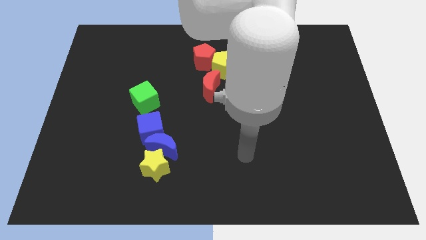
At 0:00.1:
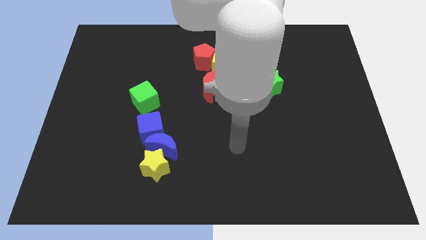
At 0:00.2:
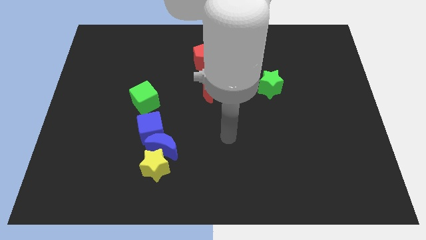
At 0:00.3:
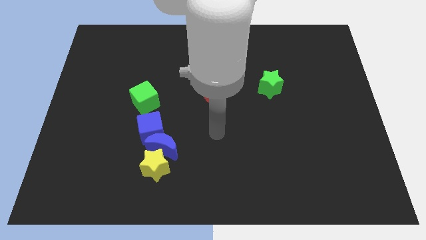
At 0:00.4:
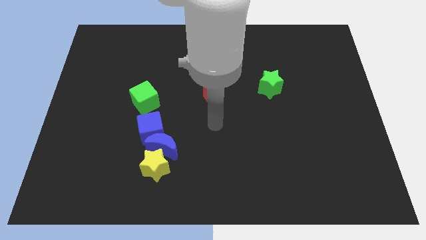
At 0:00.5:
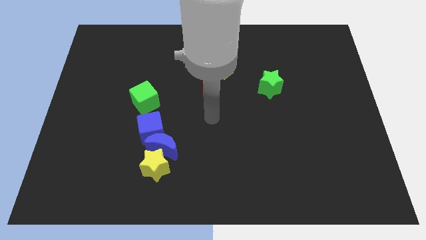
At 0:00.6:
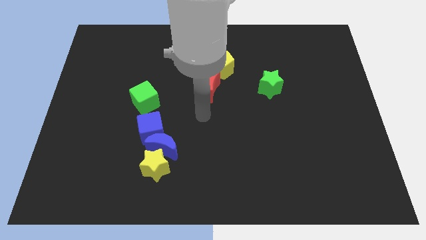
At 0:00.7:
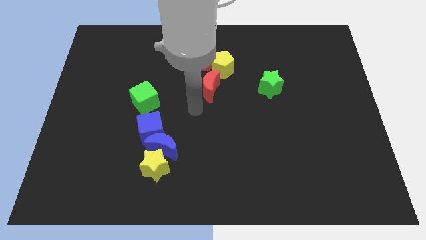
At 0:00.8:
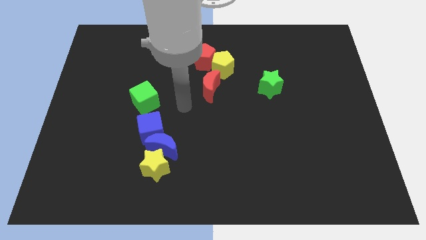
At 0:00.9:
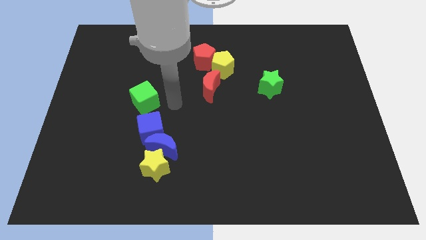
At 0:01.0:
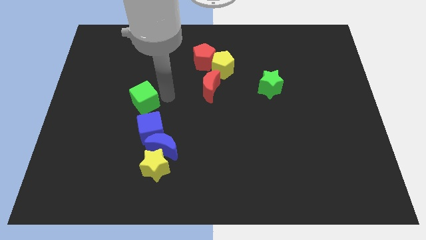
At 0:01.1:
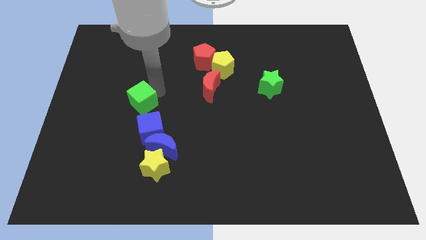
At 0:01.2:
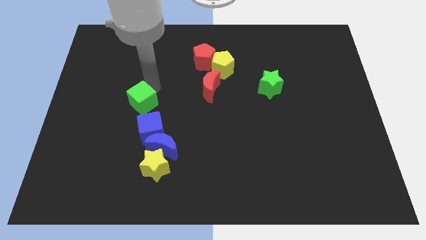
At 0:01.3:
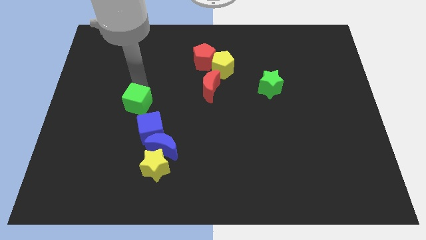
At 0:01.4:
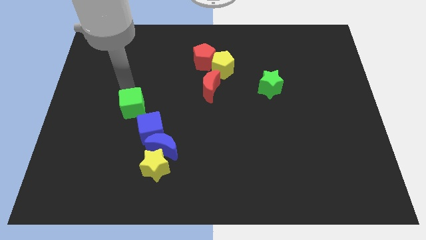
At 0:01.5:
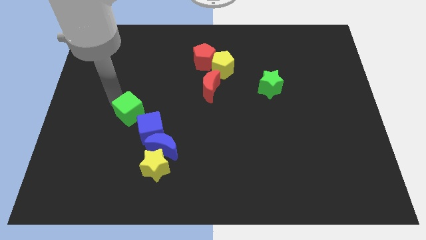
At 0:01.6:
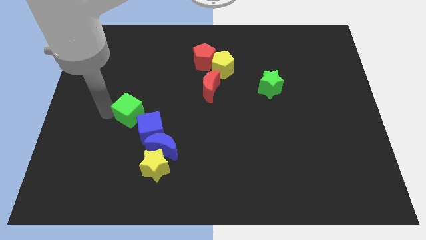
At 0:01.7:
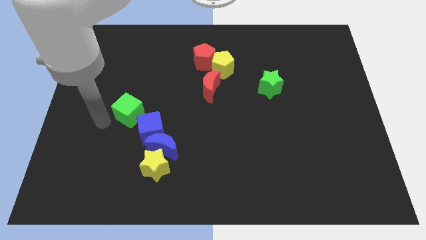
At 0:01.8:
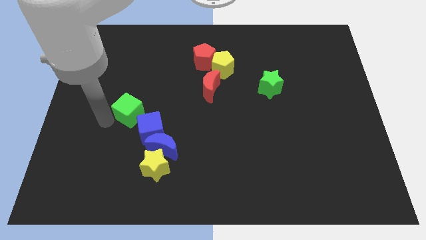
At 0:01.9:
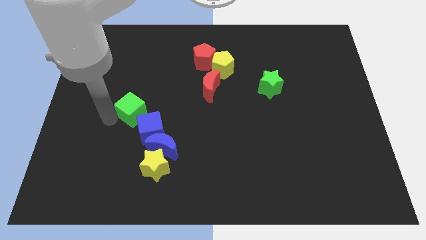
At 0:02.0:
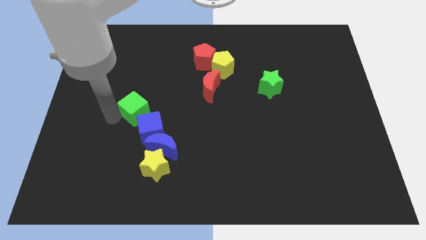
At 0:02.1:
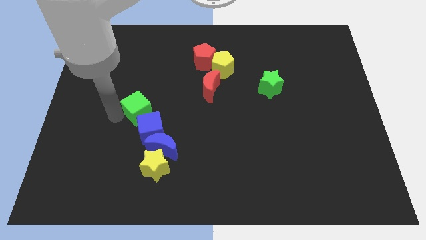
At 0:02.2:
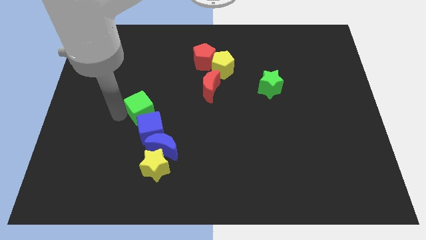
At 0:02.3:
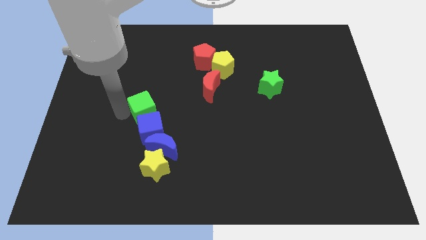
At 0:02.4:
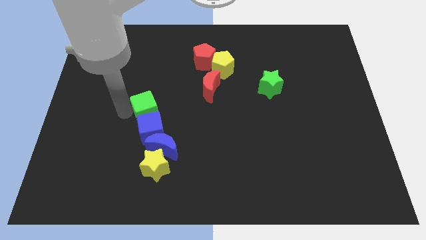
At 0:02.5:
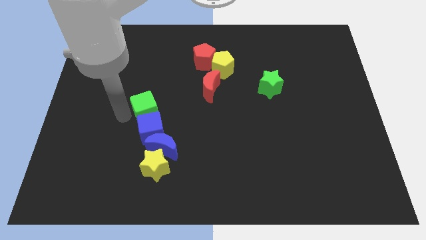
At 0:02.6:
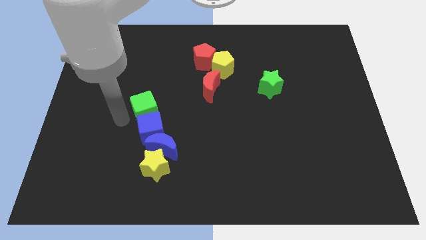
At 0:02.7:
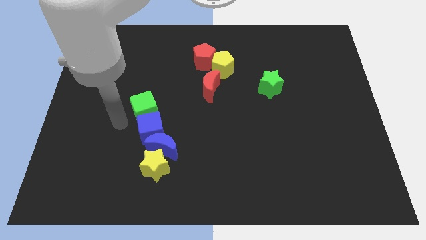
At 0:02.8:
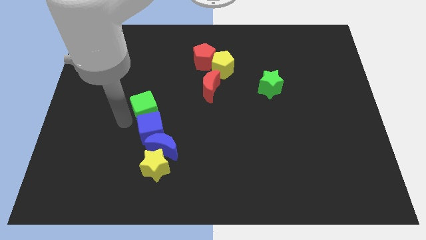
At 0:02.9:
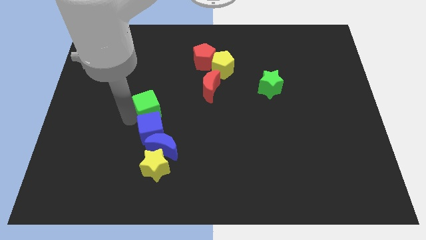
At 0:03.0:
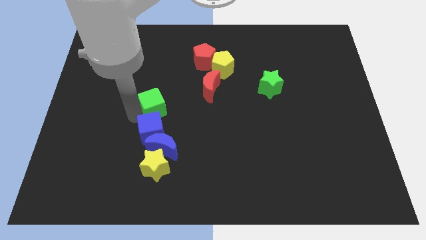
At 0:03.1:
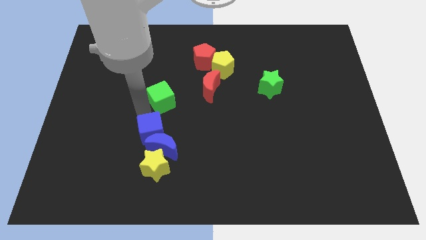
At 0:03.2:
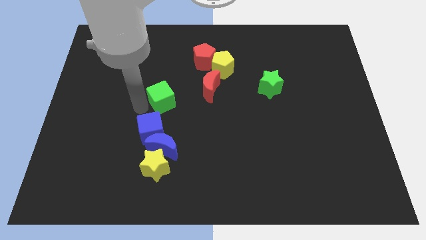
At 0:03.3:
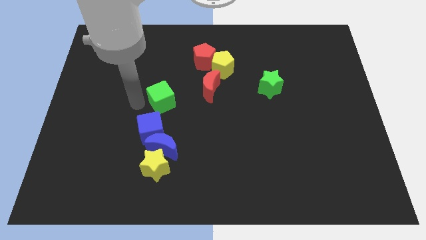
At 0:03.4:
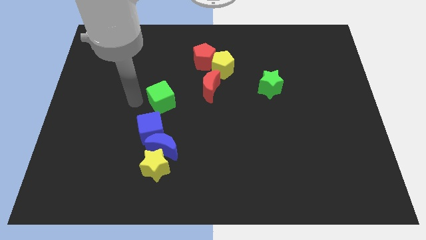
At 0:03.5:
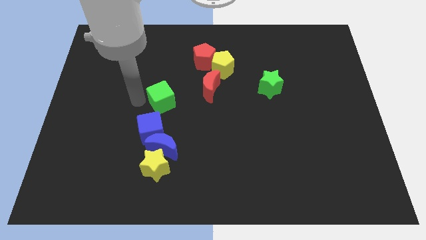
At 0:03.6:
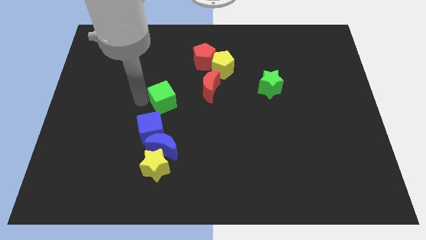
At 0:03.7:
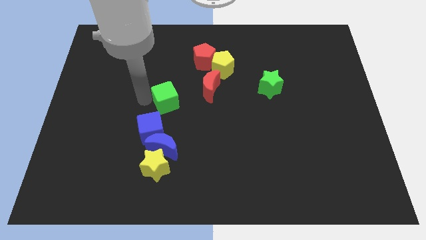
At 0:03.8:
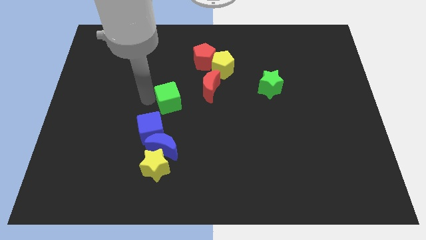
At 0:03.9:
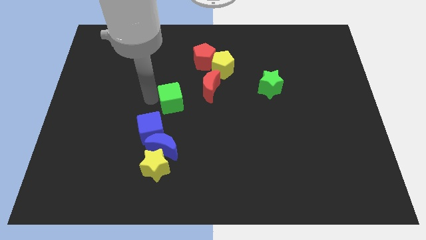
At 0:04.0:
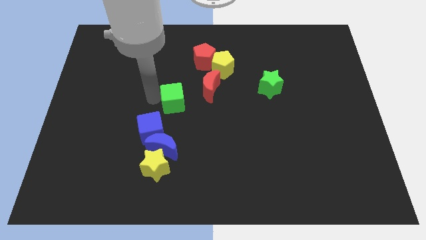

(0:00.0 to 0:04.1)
slide the green cube a bit right

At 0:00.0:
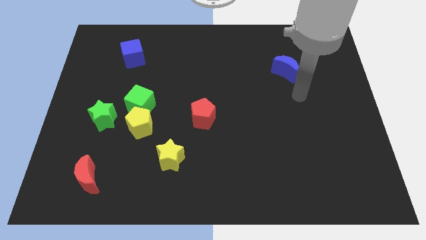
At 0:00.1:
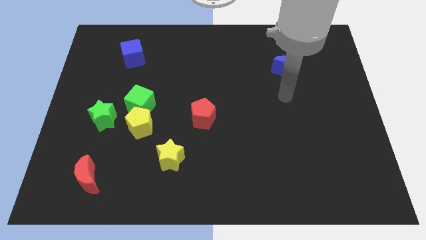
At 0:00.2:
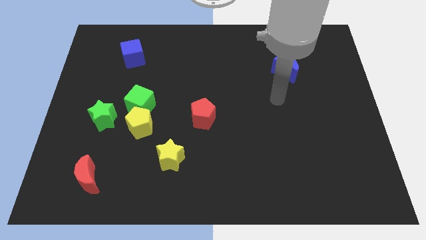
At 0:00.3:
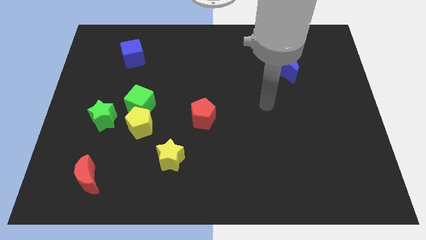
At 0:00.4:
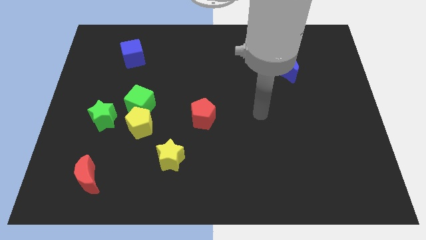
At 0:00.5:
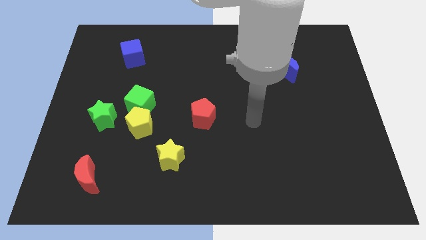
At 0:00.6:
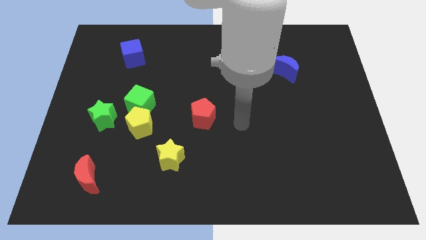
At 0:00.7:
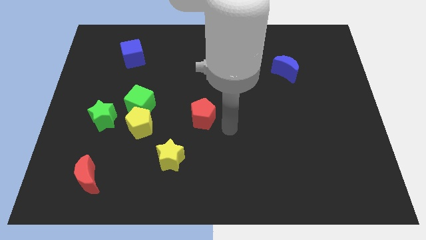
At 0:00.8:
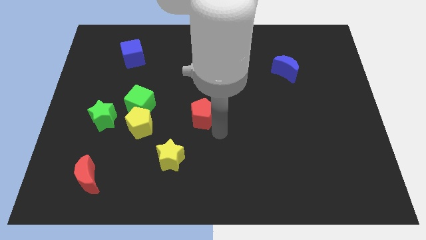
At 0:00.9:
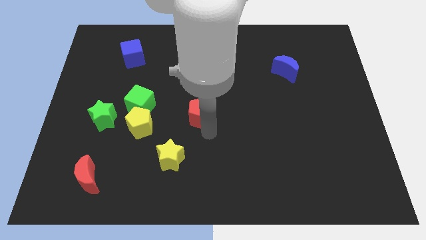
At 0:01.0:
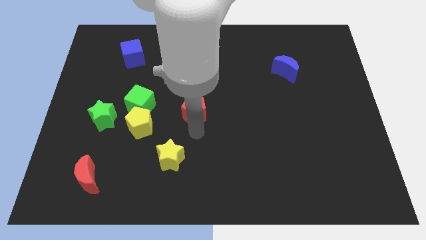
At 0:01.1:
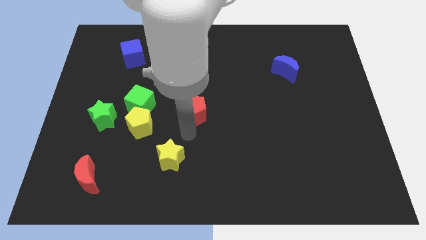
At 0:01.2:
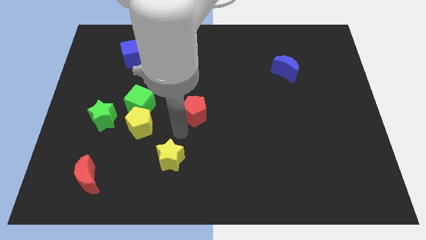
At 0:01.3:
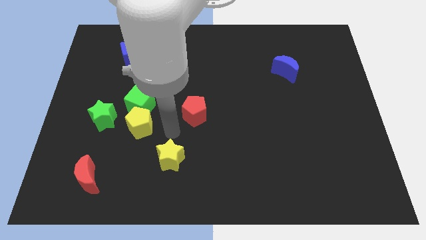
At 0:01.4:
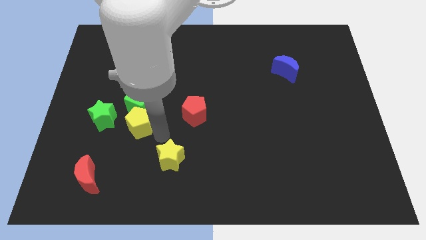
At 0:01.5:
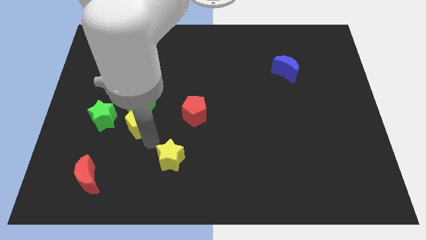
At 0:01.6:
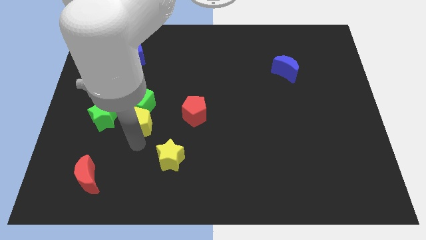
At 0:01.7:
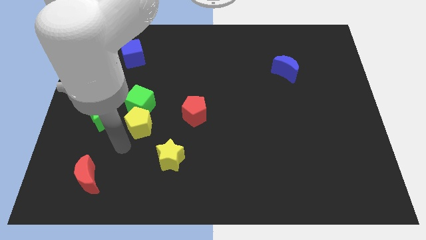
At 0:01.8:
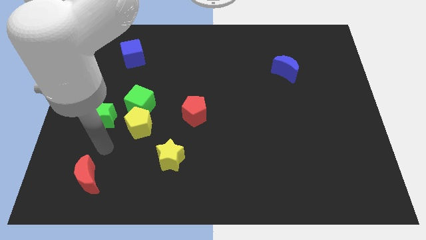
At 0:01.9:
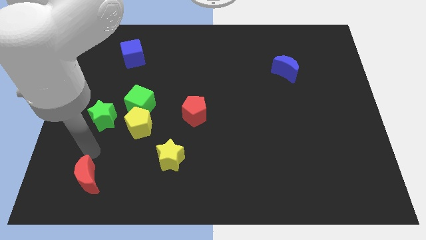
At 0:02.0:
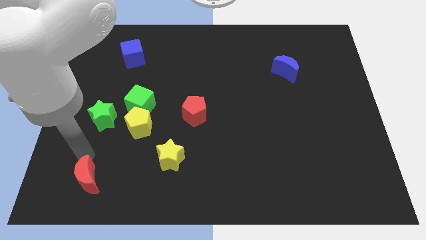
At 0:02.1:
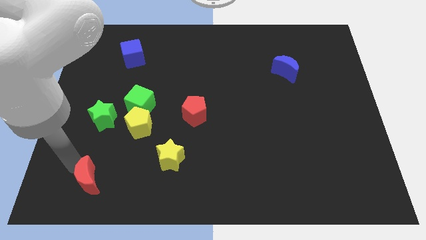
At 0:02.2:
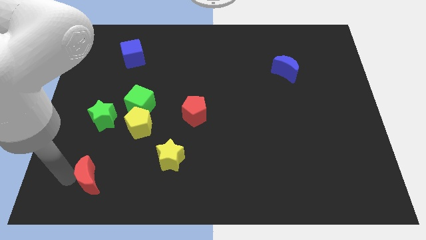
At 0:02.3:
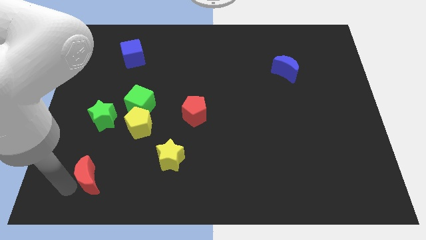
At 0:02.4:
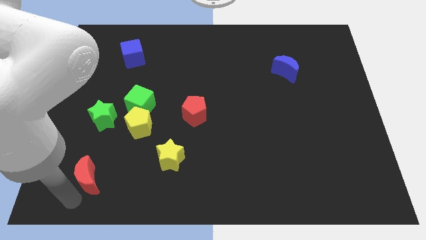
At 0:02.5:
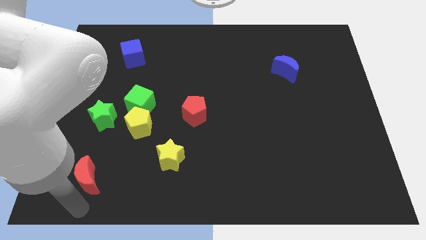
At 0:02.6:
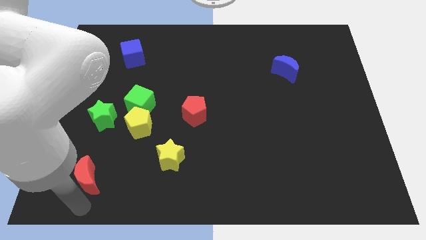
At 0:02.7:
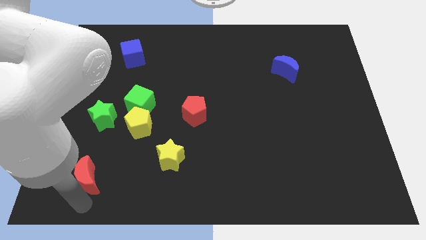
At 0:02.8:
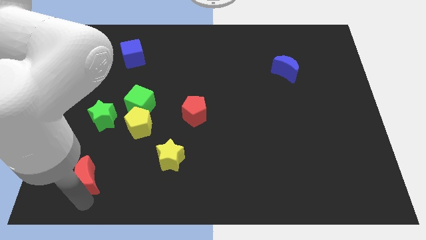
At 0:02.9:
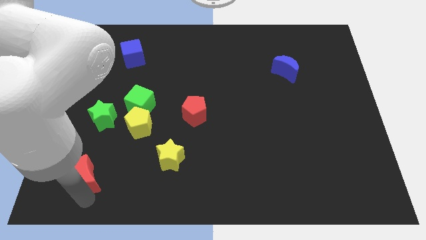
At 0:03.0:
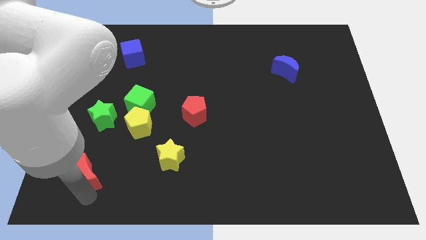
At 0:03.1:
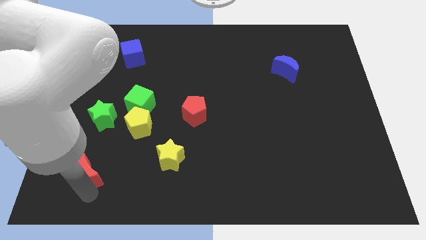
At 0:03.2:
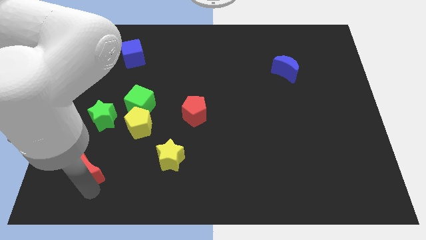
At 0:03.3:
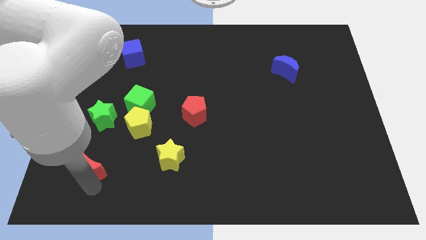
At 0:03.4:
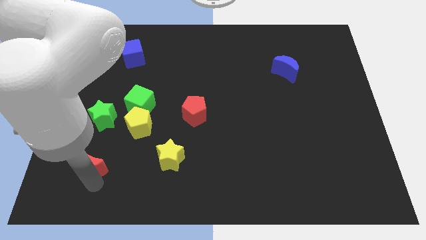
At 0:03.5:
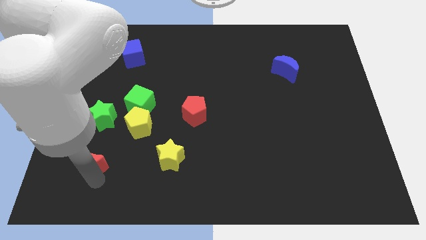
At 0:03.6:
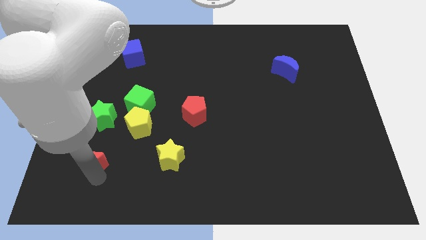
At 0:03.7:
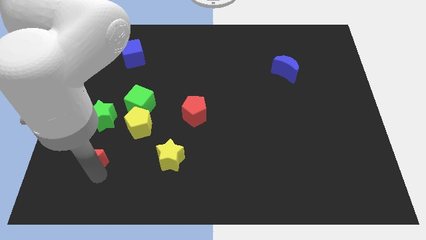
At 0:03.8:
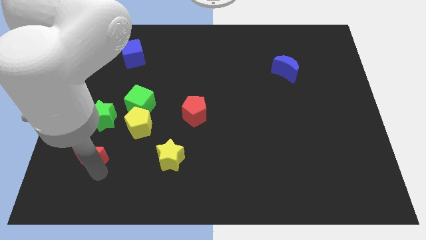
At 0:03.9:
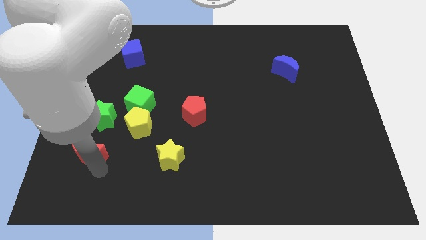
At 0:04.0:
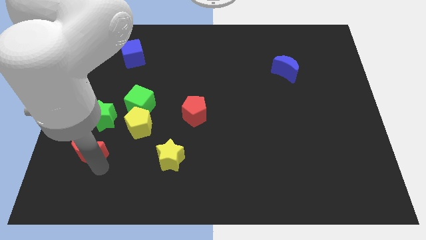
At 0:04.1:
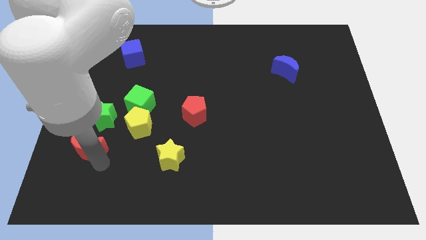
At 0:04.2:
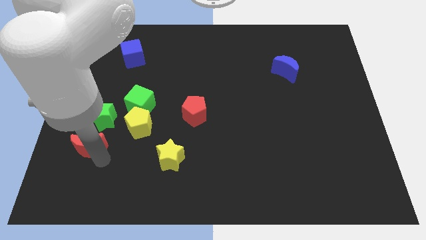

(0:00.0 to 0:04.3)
move the red moon a bit upwards
